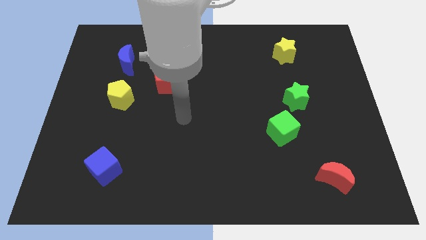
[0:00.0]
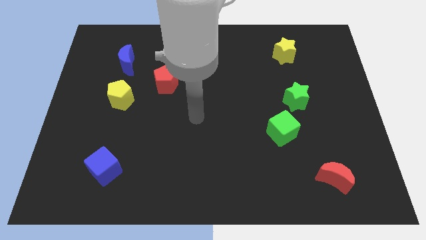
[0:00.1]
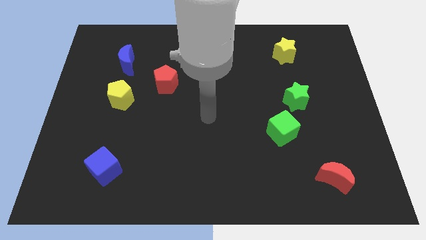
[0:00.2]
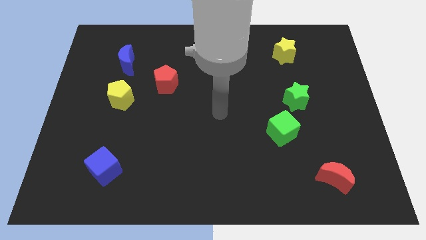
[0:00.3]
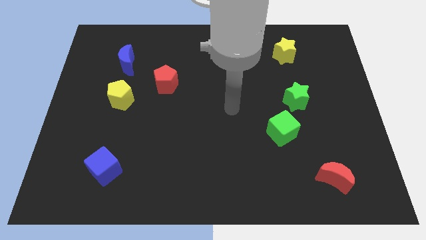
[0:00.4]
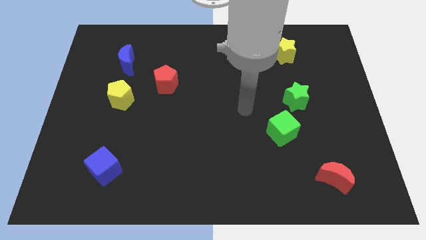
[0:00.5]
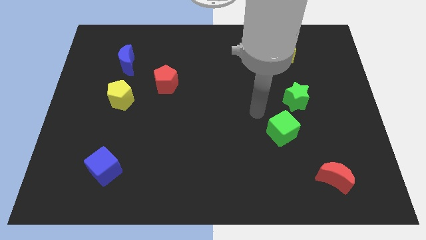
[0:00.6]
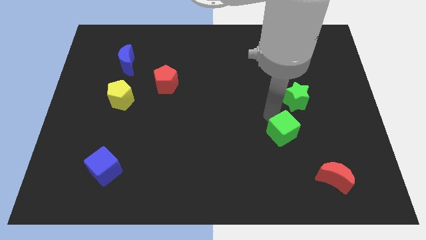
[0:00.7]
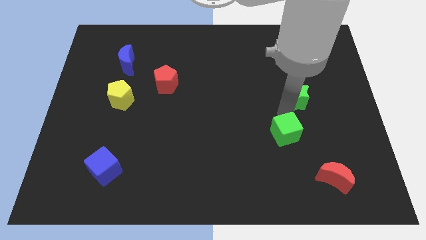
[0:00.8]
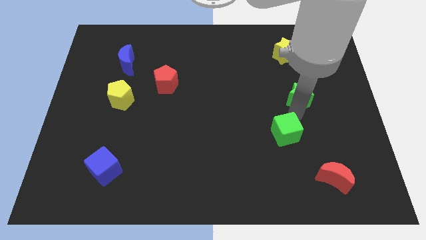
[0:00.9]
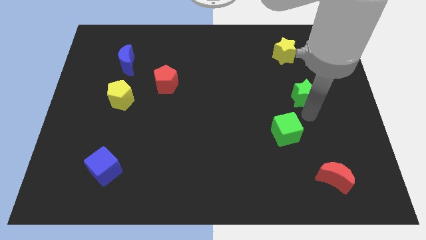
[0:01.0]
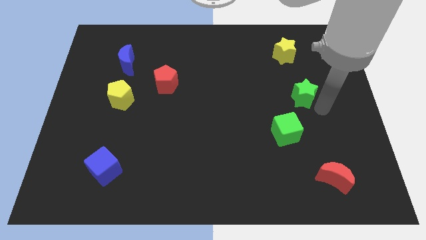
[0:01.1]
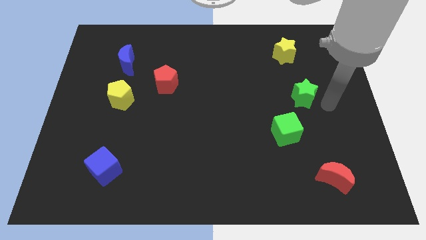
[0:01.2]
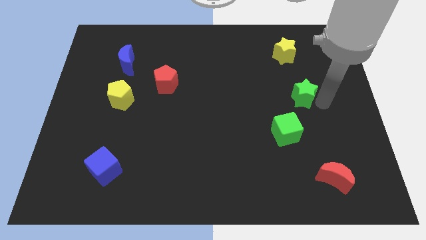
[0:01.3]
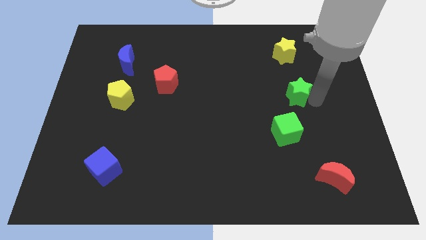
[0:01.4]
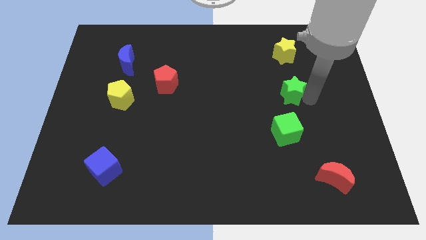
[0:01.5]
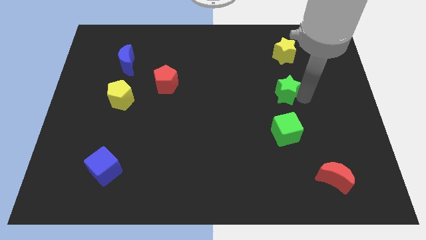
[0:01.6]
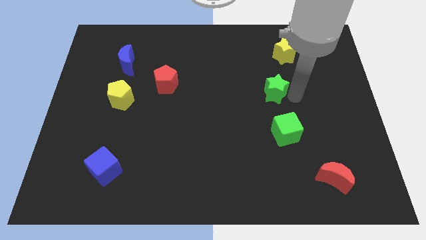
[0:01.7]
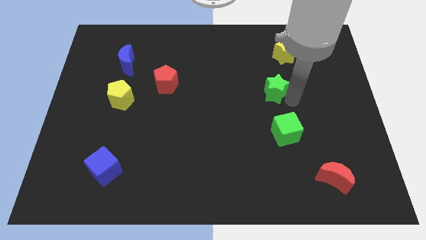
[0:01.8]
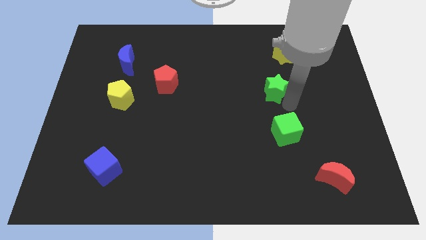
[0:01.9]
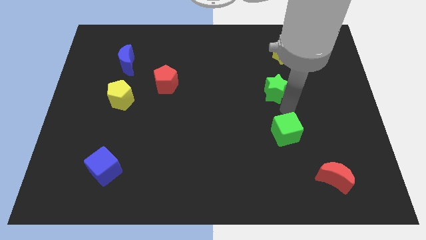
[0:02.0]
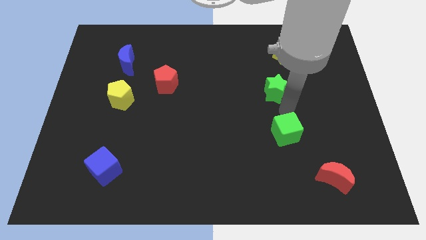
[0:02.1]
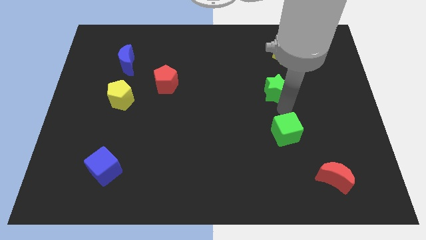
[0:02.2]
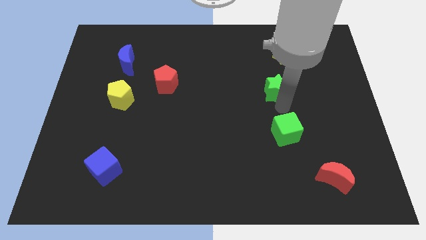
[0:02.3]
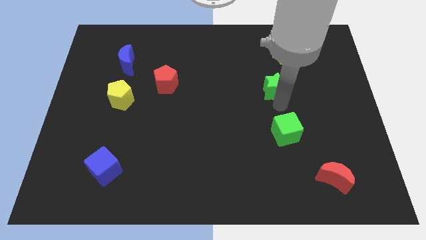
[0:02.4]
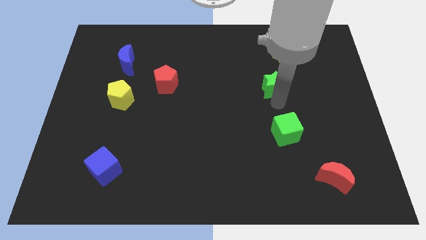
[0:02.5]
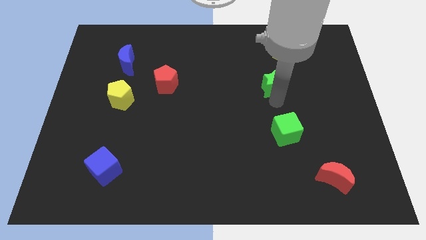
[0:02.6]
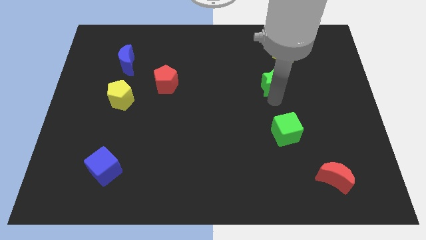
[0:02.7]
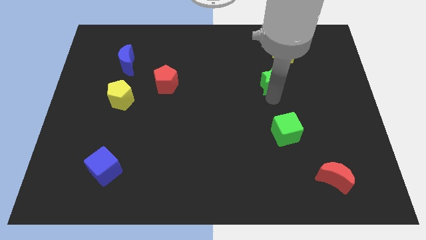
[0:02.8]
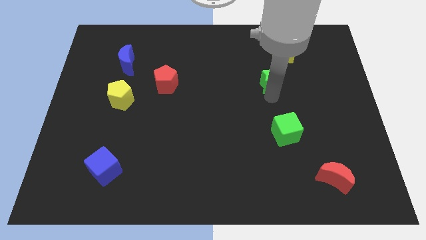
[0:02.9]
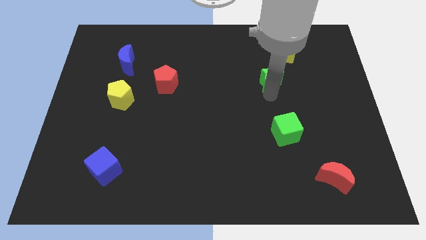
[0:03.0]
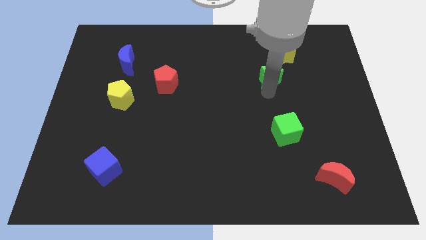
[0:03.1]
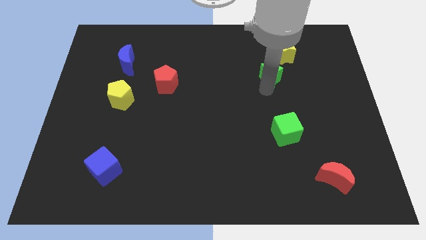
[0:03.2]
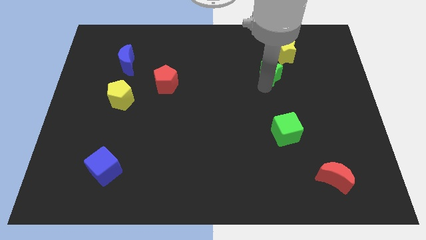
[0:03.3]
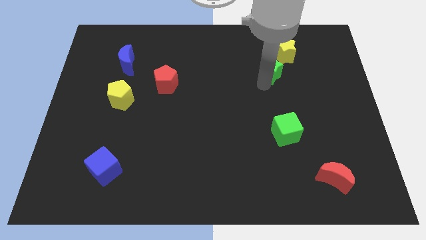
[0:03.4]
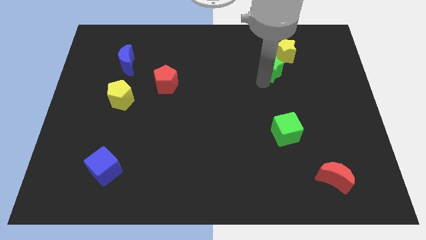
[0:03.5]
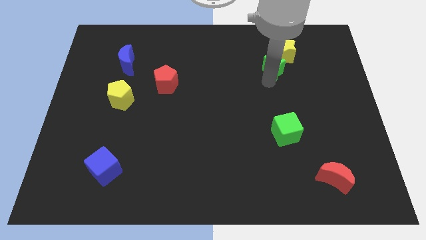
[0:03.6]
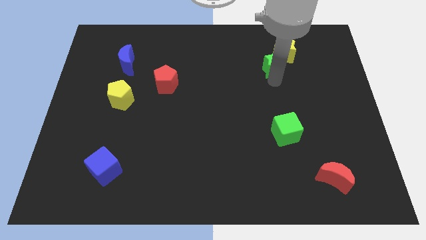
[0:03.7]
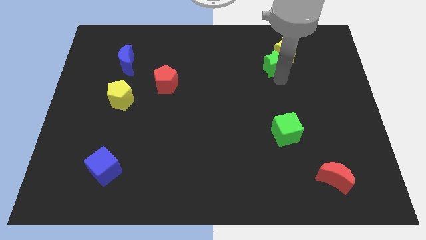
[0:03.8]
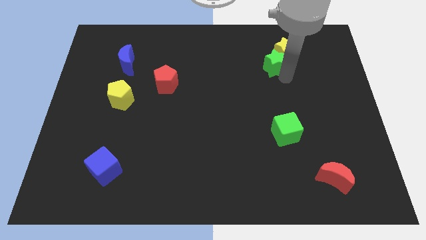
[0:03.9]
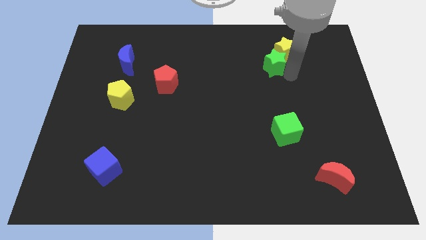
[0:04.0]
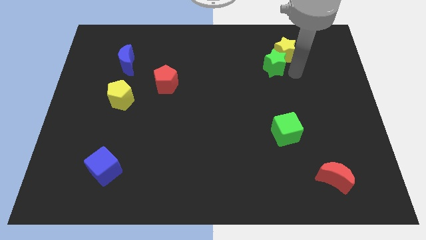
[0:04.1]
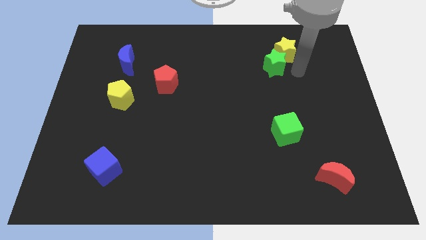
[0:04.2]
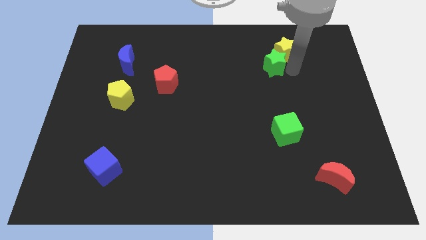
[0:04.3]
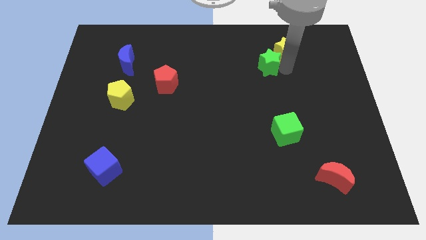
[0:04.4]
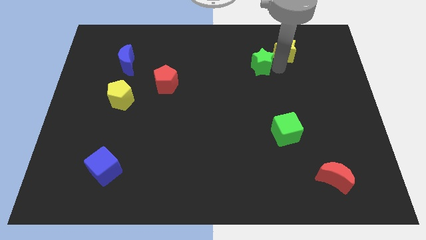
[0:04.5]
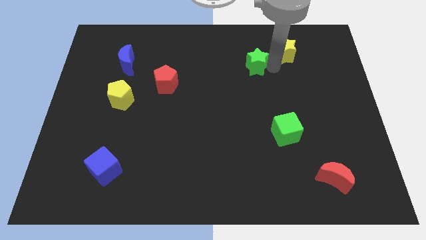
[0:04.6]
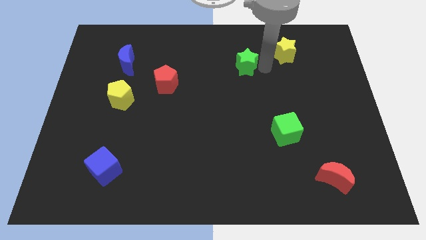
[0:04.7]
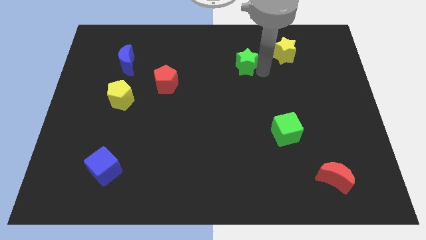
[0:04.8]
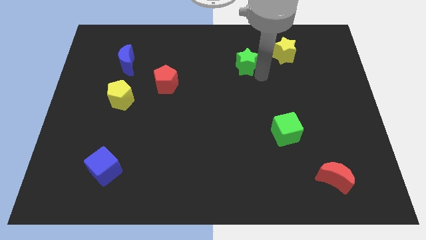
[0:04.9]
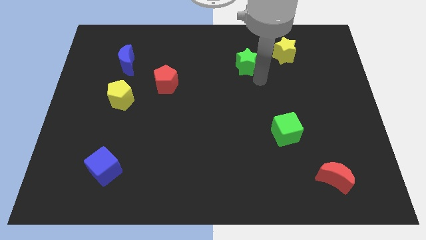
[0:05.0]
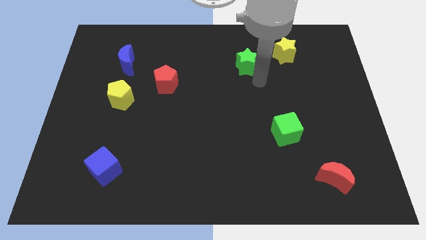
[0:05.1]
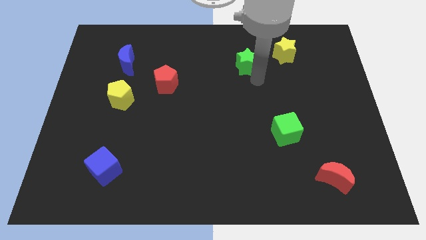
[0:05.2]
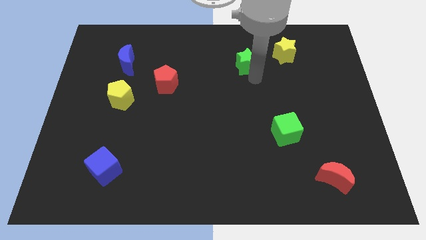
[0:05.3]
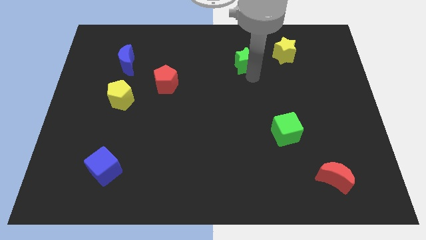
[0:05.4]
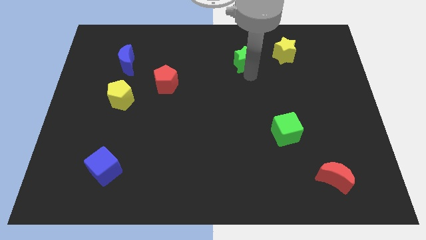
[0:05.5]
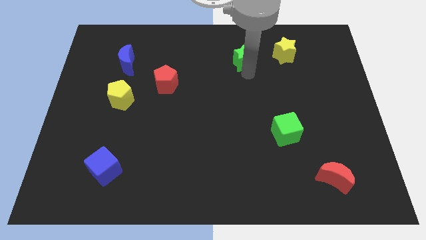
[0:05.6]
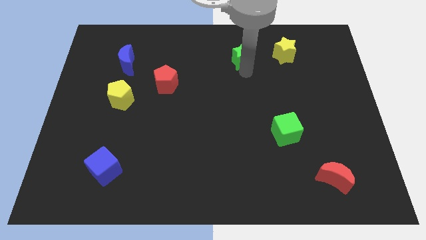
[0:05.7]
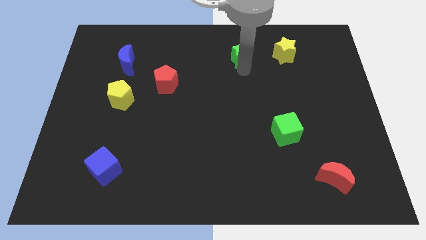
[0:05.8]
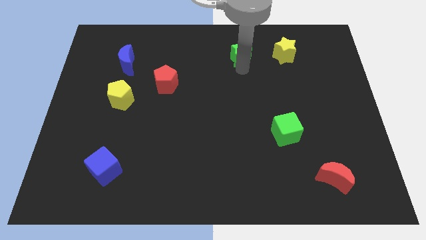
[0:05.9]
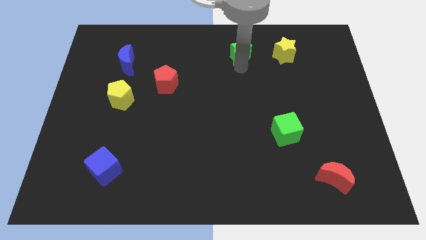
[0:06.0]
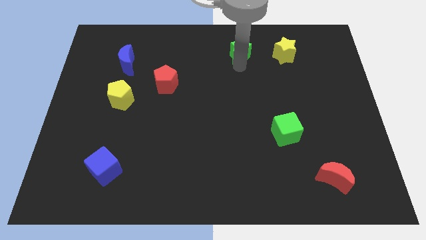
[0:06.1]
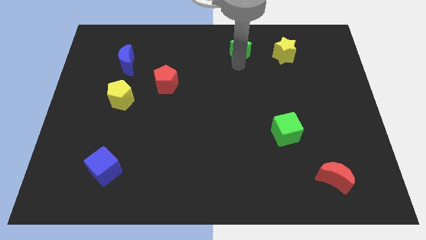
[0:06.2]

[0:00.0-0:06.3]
push the green star to the top
